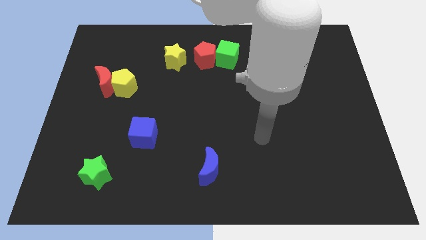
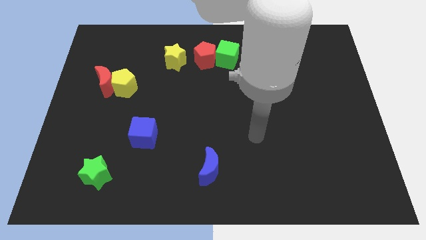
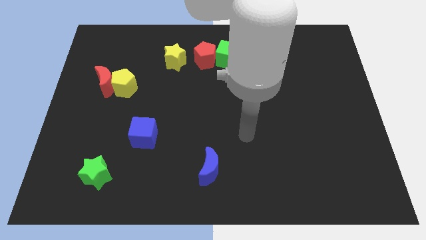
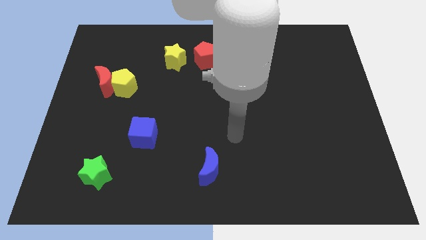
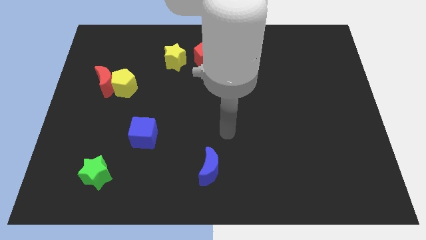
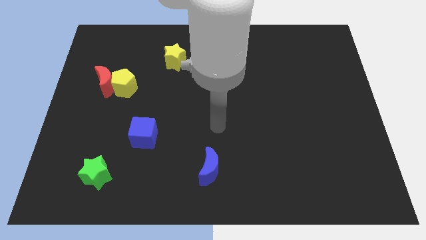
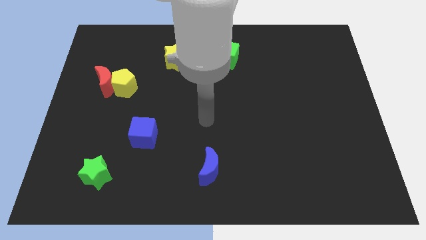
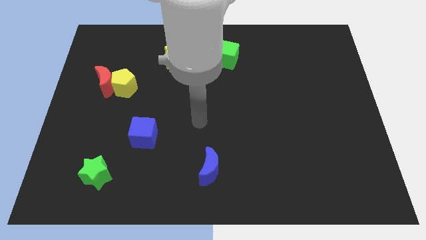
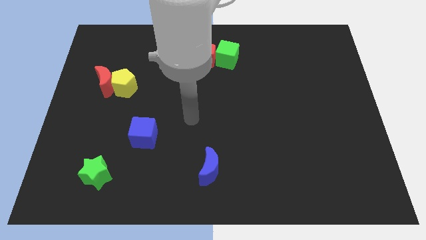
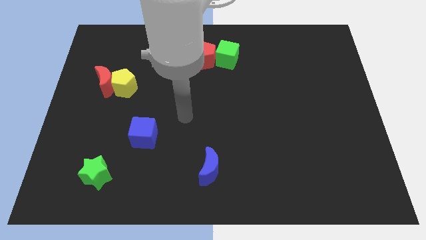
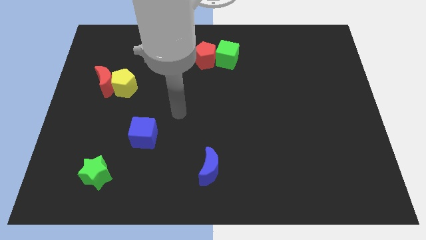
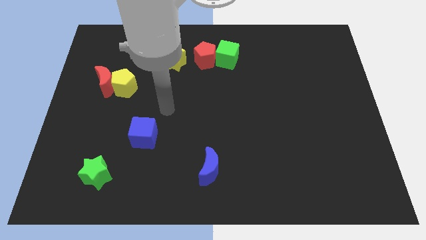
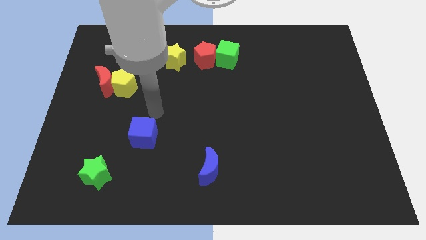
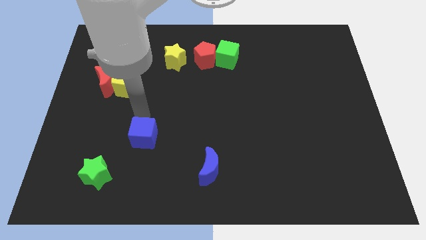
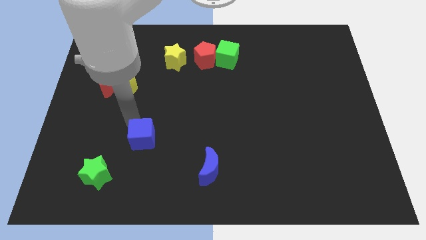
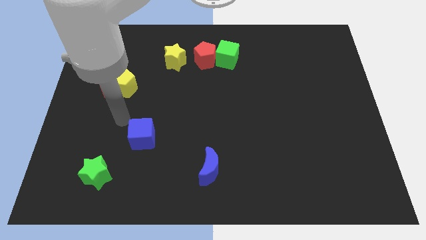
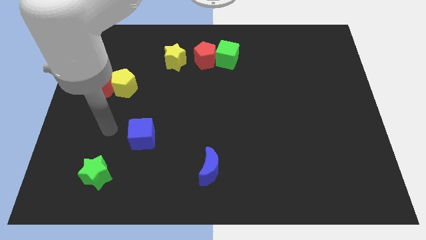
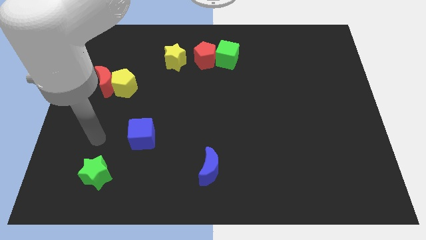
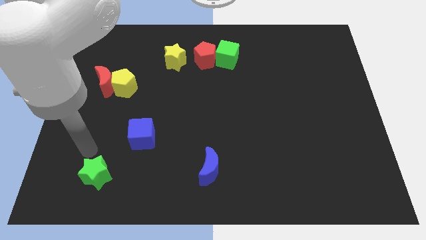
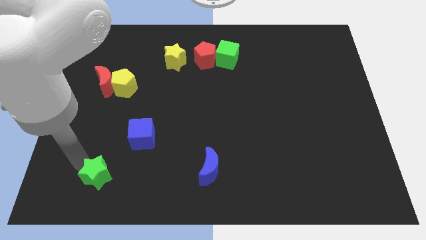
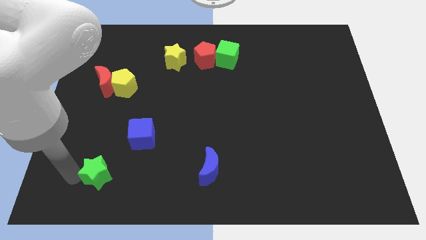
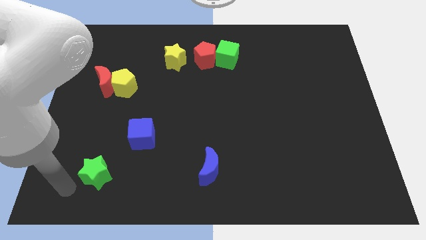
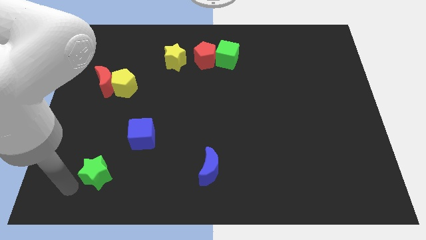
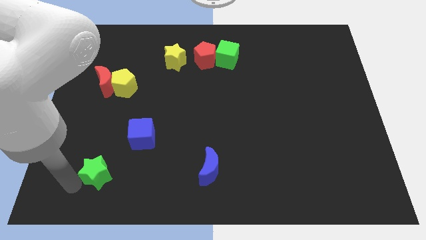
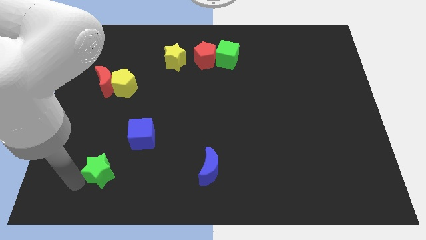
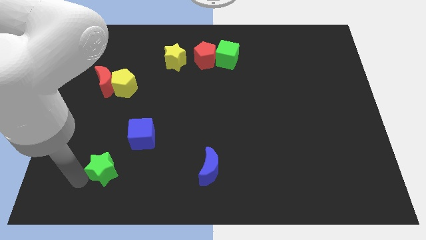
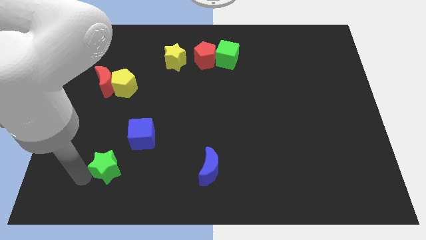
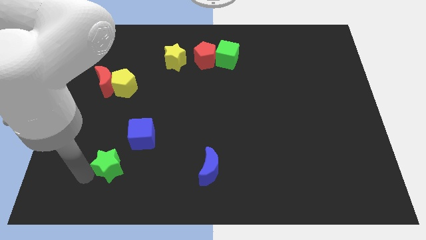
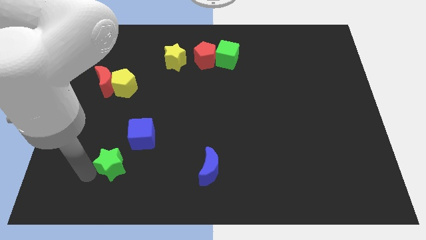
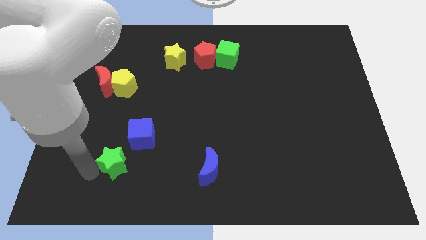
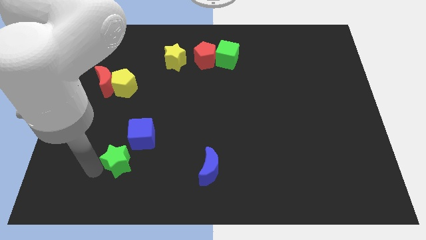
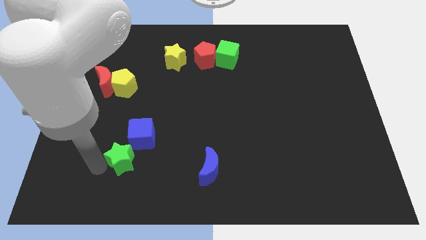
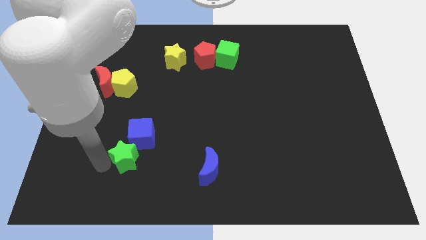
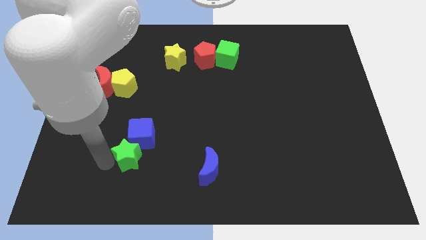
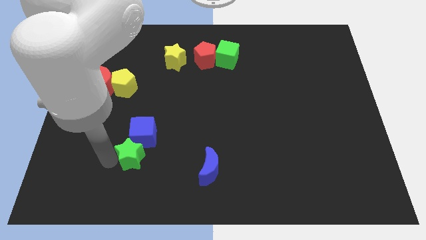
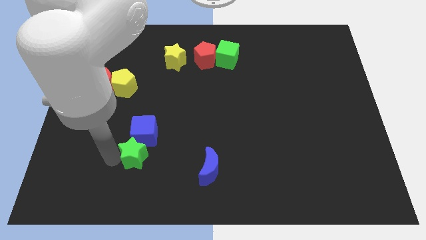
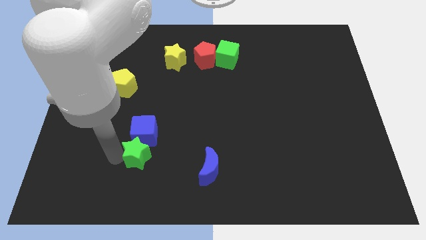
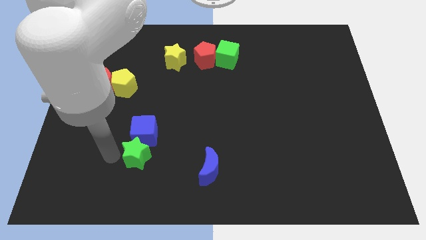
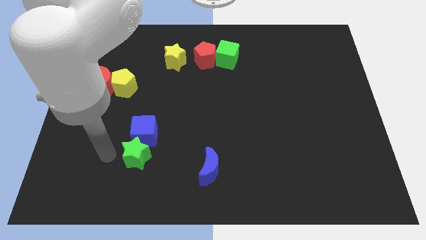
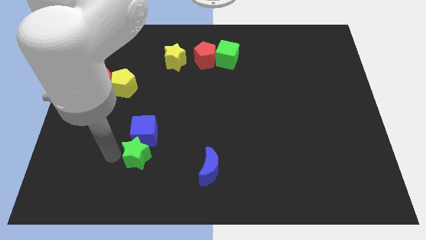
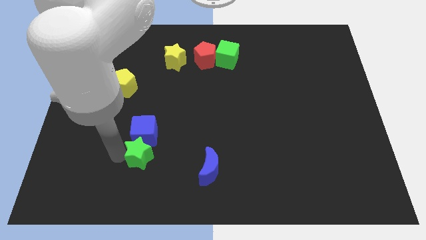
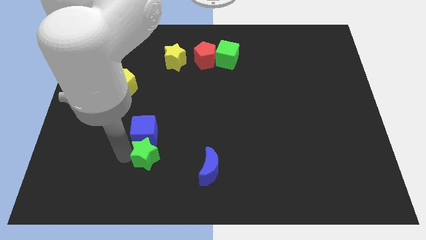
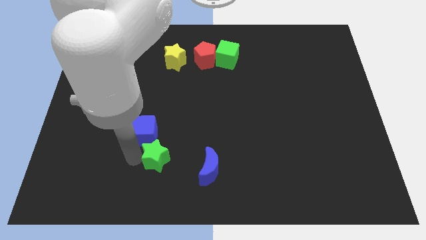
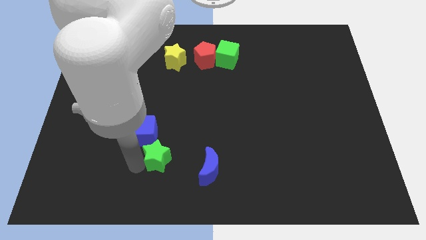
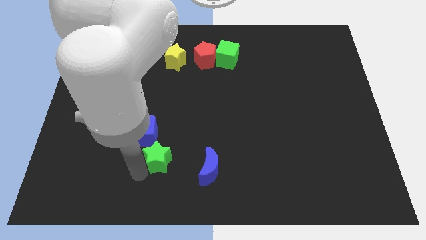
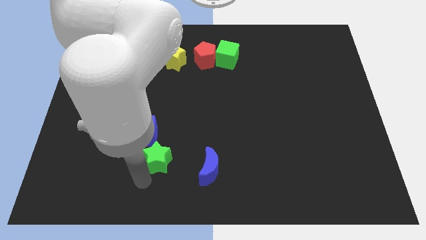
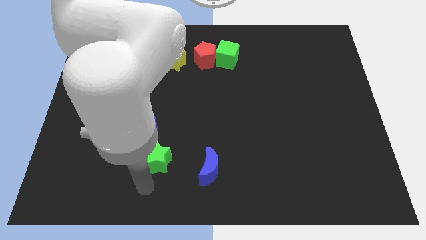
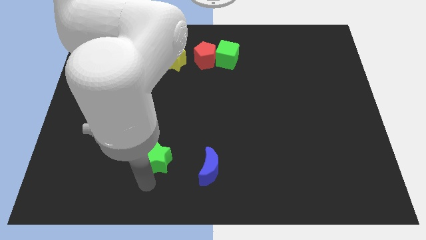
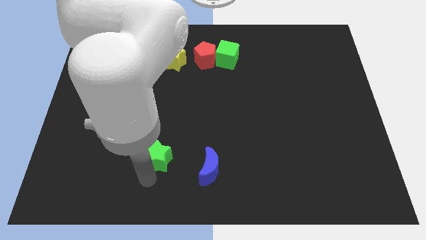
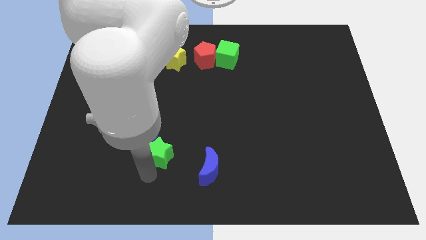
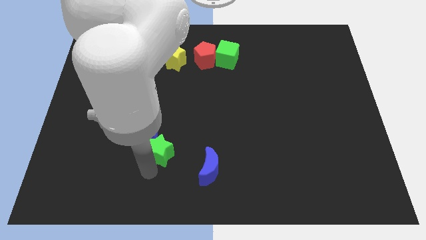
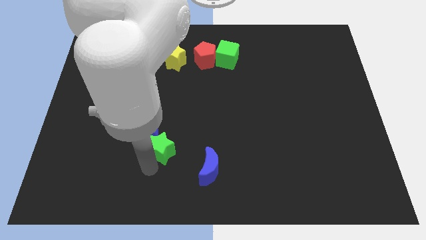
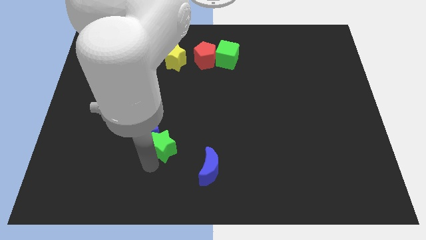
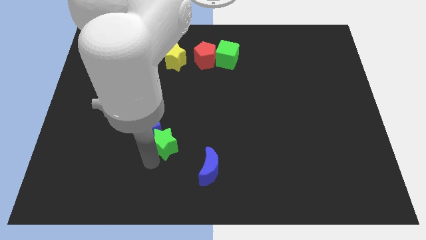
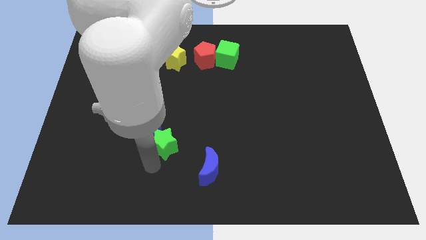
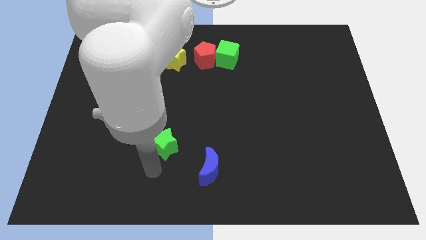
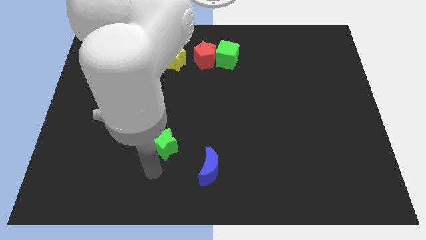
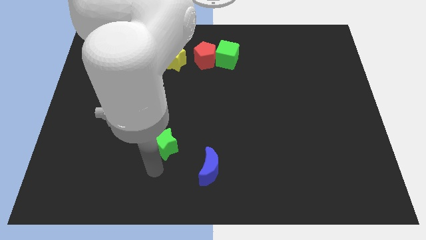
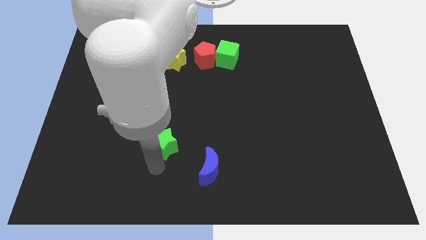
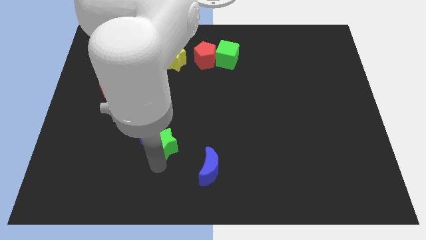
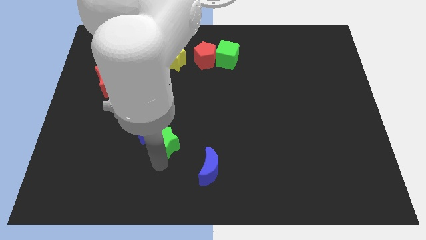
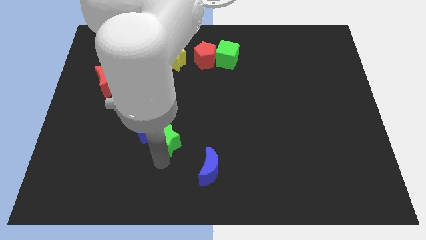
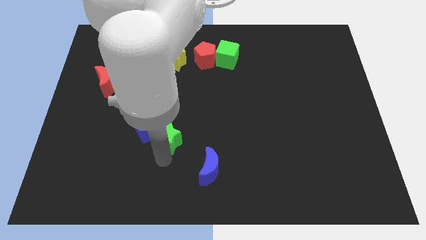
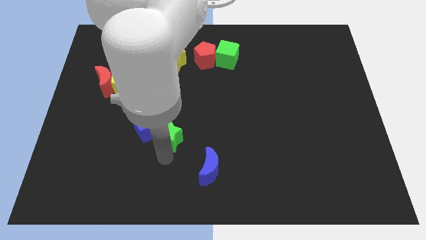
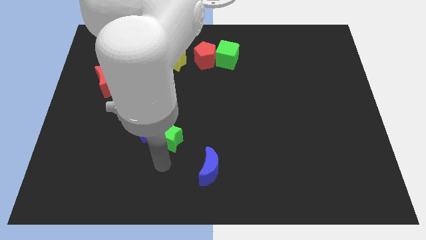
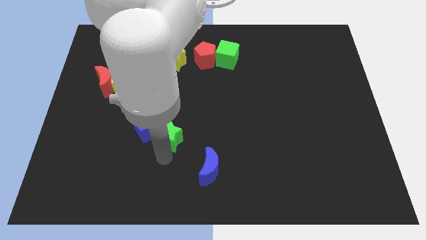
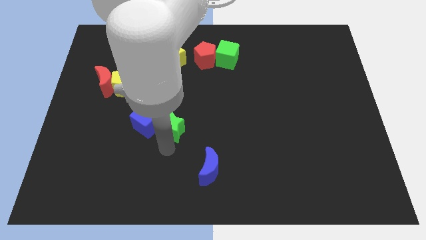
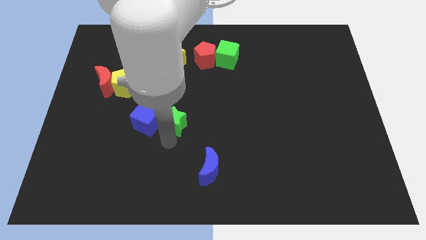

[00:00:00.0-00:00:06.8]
move the green star upwards and then right

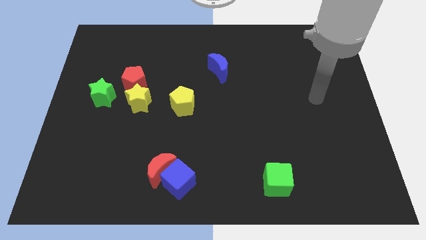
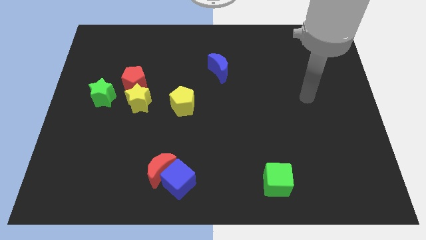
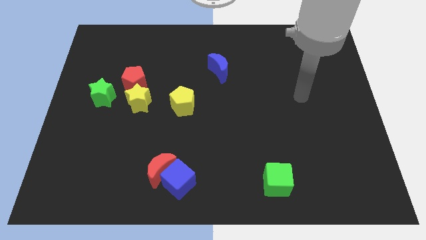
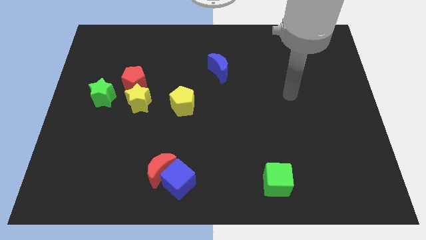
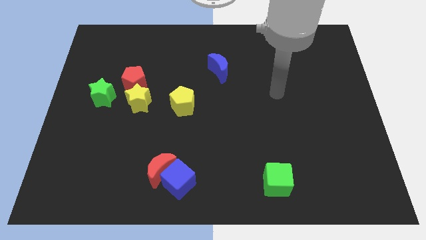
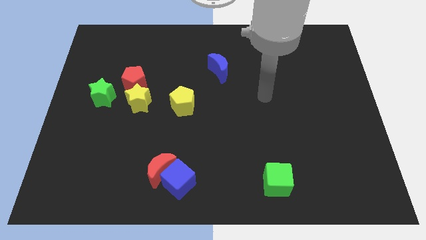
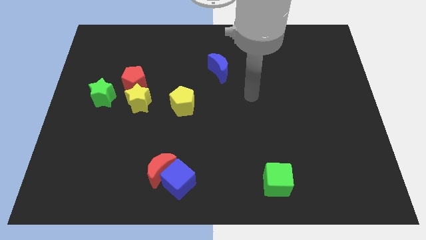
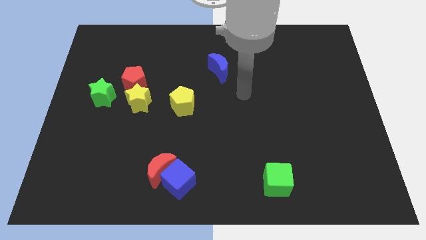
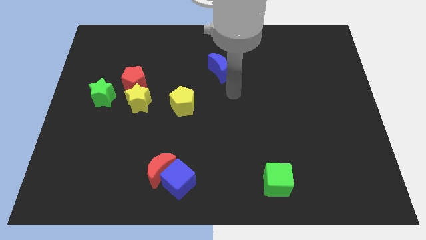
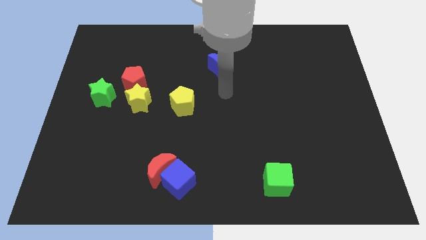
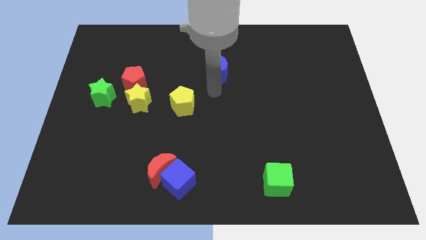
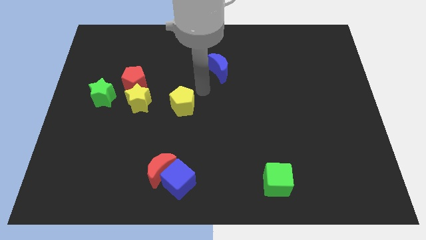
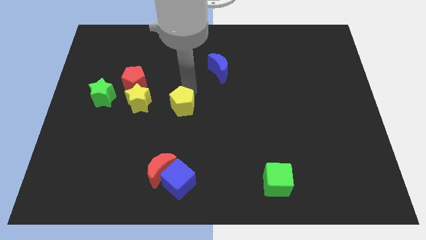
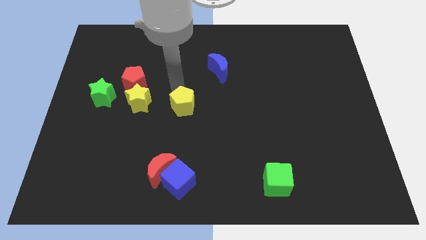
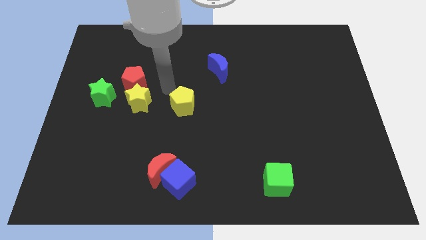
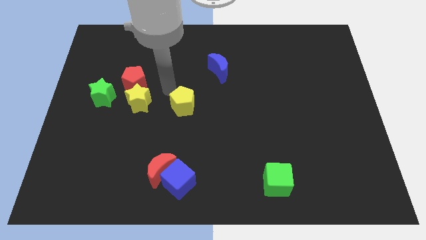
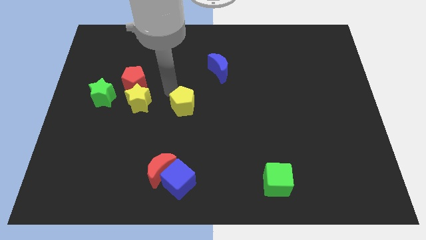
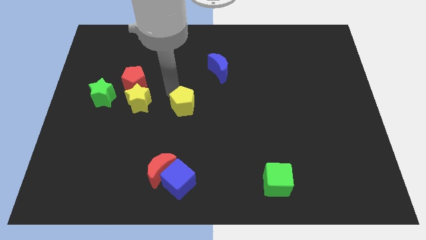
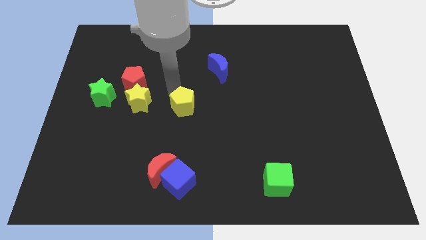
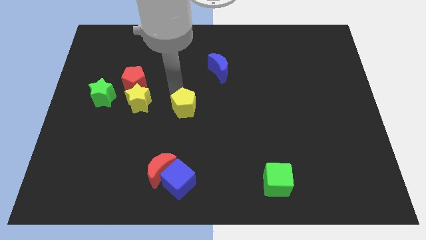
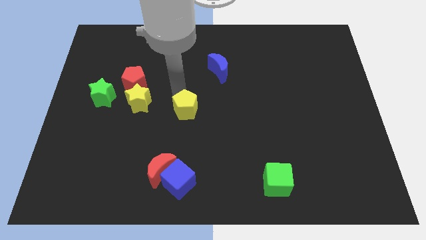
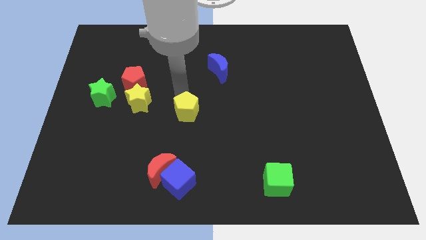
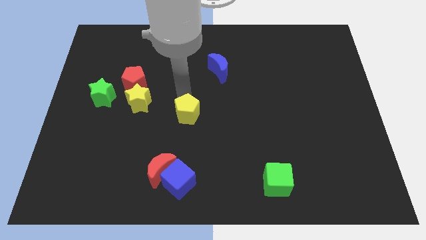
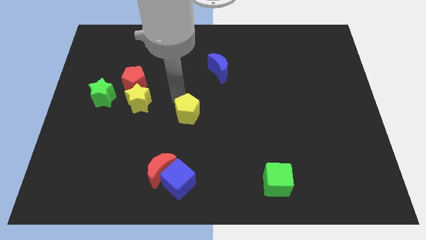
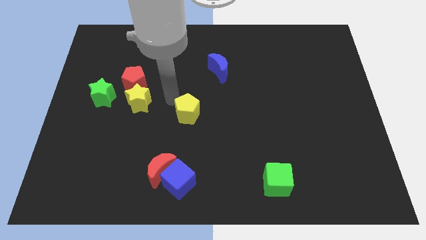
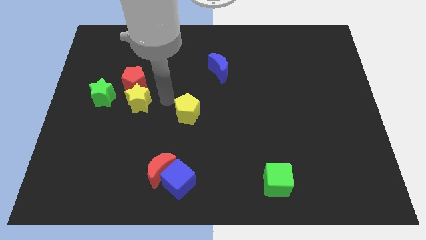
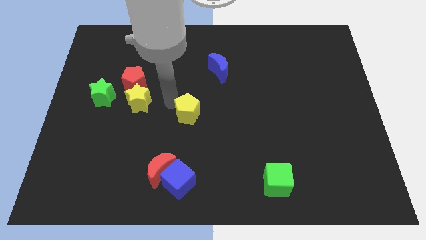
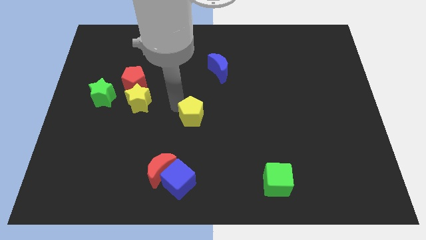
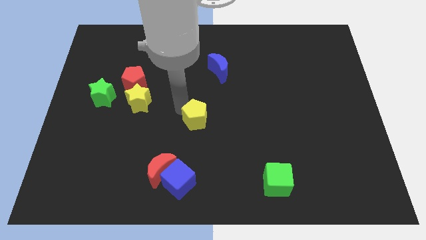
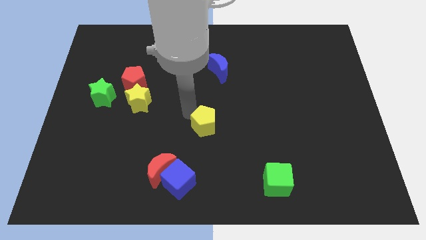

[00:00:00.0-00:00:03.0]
push the yellow pentagon a bit diagonally down and to the right
